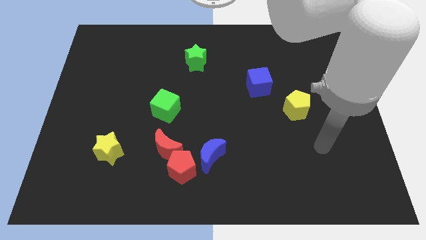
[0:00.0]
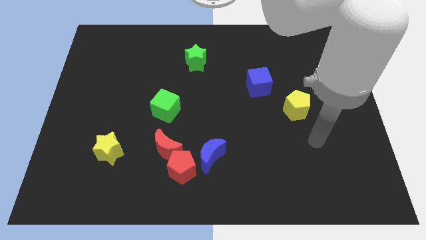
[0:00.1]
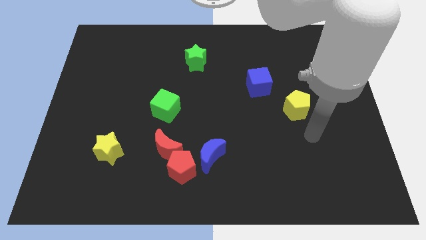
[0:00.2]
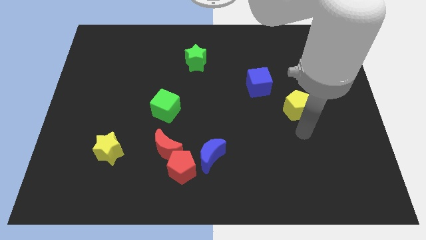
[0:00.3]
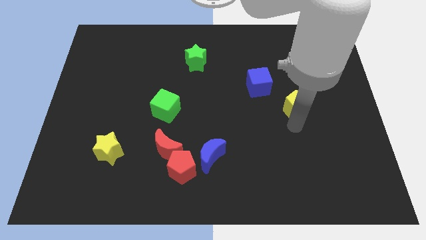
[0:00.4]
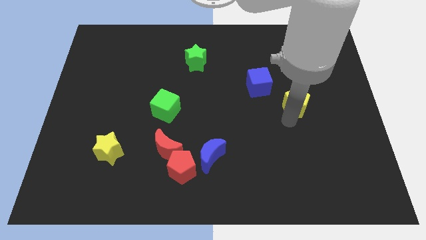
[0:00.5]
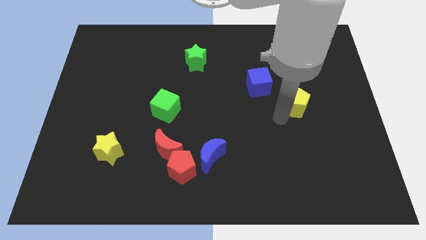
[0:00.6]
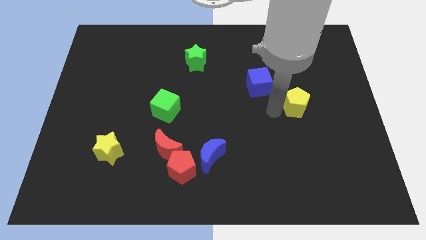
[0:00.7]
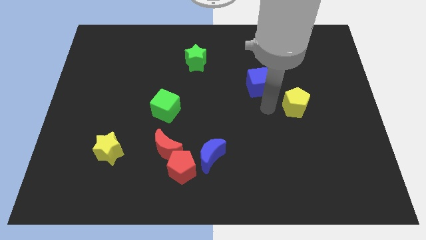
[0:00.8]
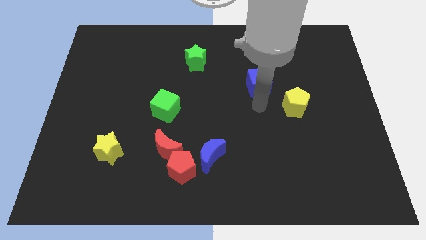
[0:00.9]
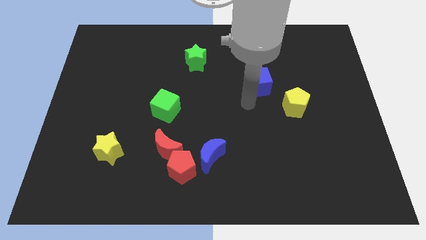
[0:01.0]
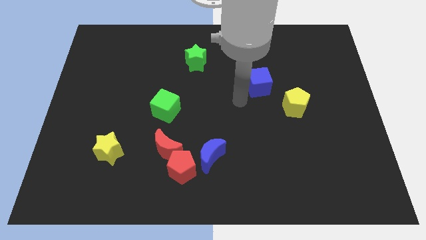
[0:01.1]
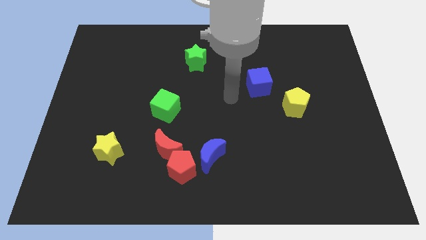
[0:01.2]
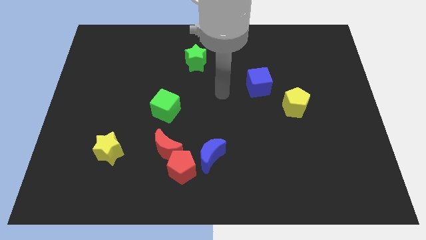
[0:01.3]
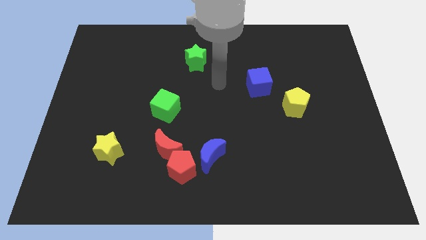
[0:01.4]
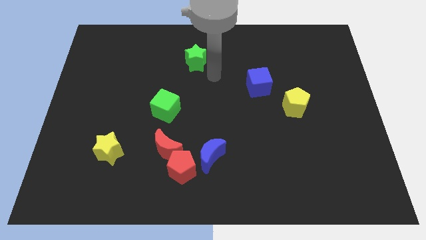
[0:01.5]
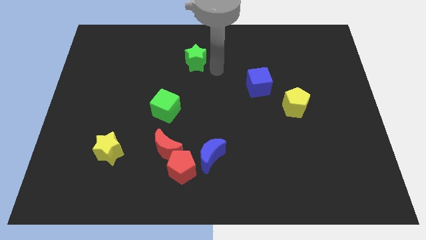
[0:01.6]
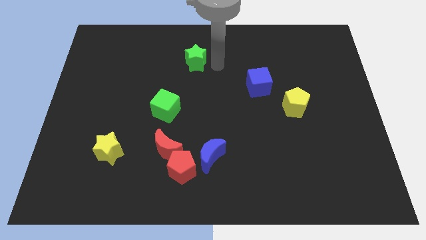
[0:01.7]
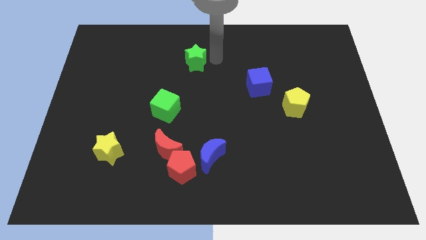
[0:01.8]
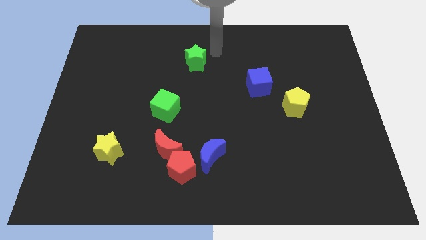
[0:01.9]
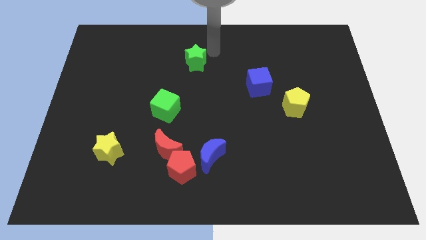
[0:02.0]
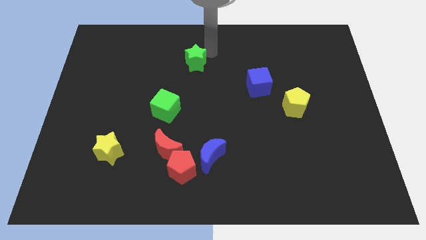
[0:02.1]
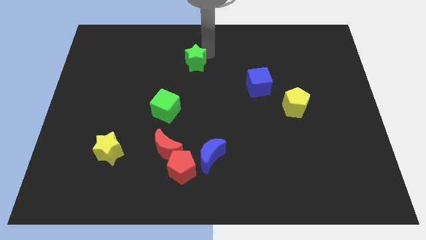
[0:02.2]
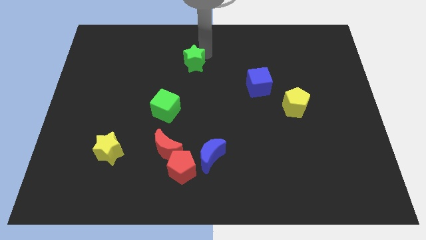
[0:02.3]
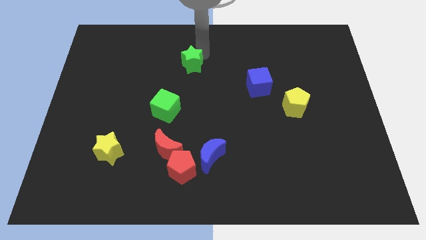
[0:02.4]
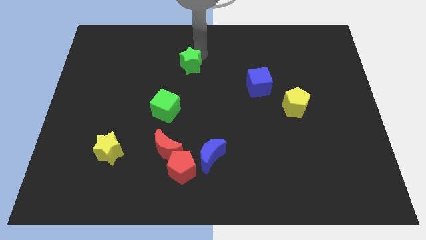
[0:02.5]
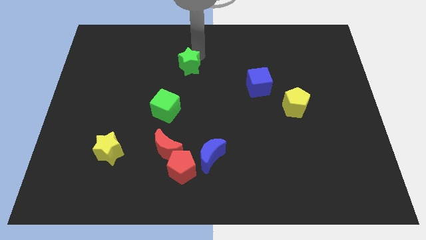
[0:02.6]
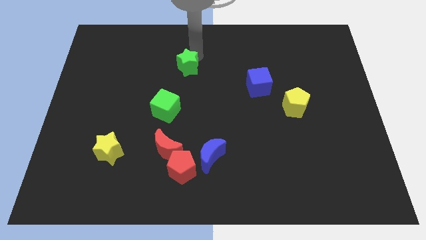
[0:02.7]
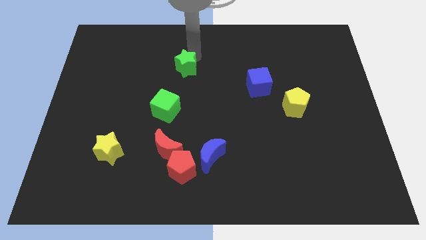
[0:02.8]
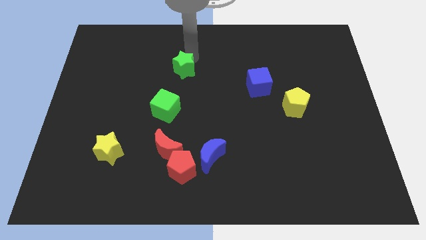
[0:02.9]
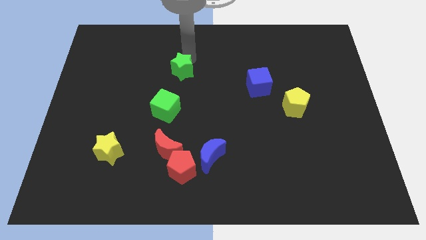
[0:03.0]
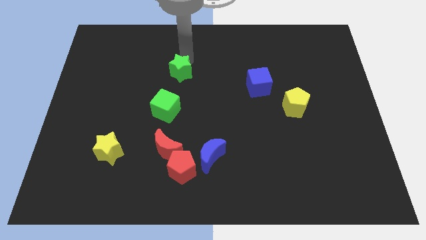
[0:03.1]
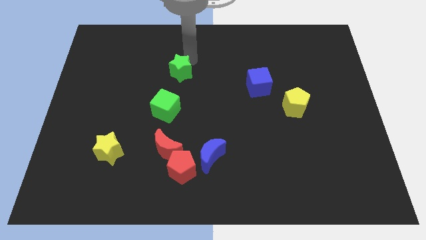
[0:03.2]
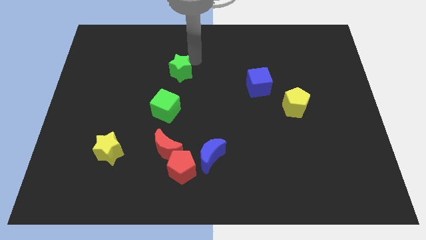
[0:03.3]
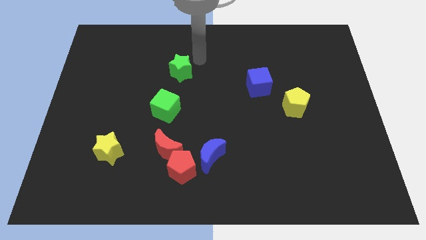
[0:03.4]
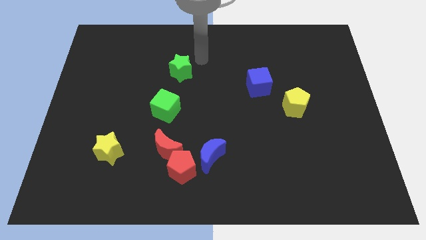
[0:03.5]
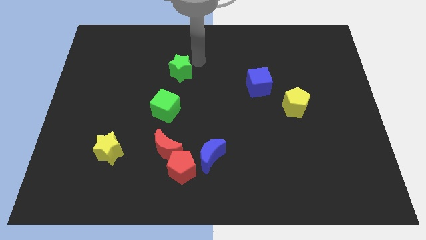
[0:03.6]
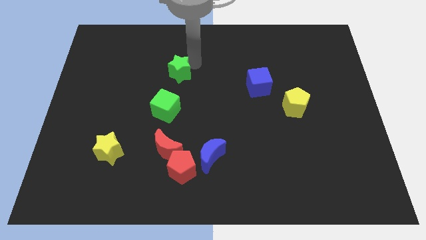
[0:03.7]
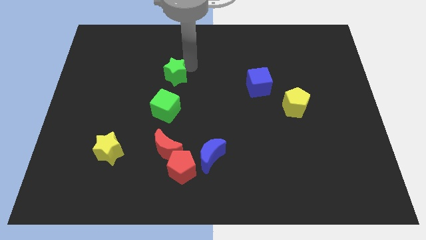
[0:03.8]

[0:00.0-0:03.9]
move the green star diagonally down and to the left slightly

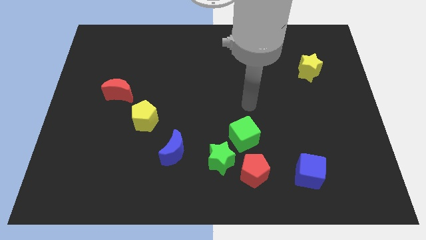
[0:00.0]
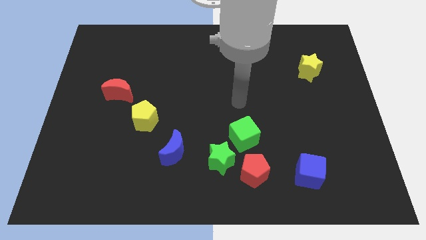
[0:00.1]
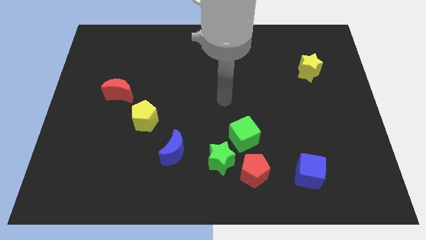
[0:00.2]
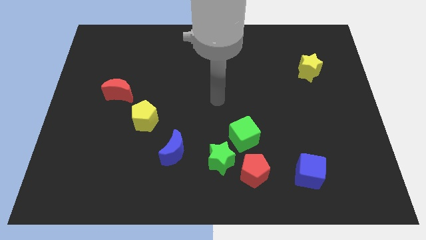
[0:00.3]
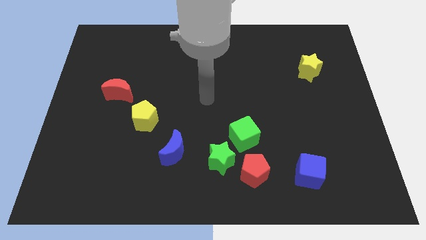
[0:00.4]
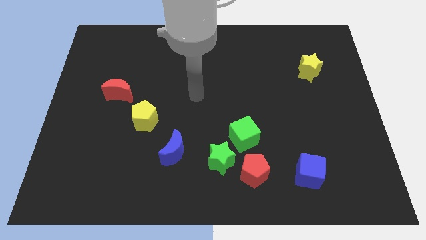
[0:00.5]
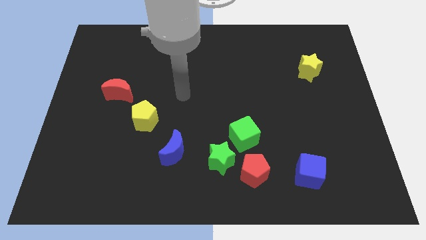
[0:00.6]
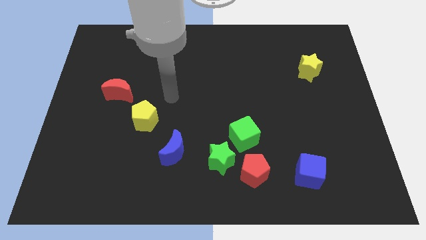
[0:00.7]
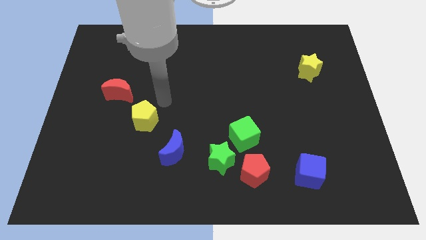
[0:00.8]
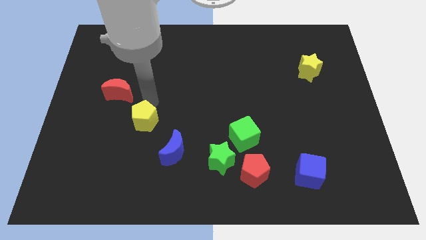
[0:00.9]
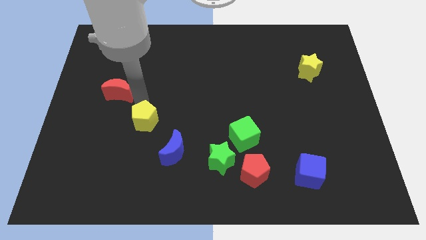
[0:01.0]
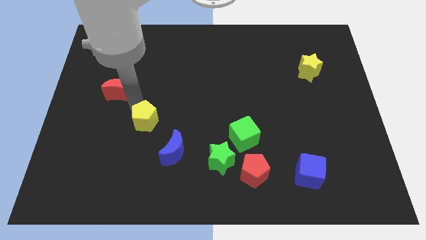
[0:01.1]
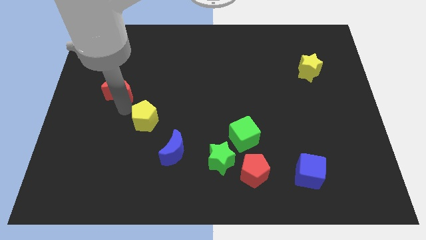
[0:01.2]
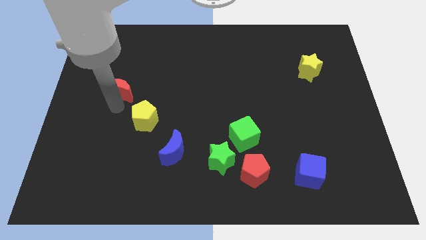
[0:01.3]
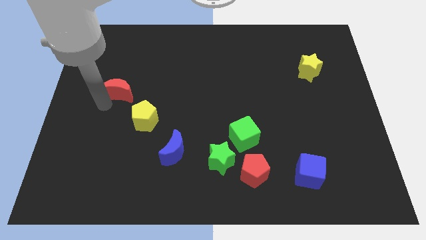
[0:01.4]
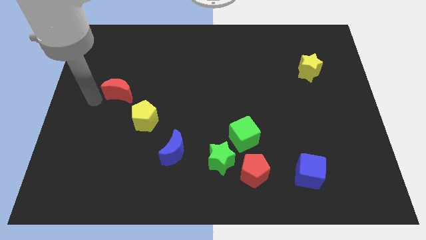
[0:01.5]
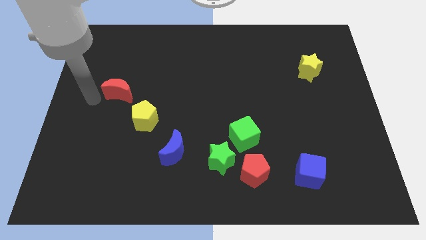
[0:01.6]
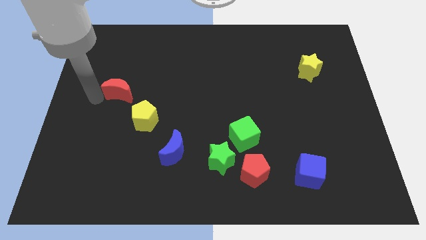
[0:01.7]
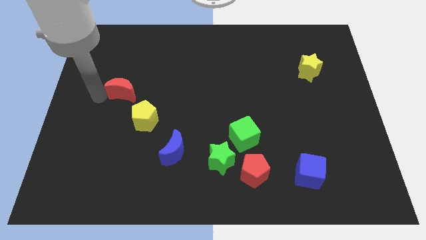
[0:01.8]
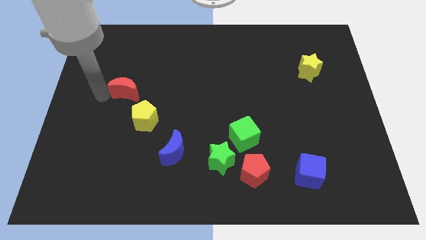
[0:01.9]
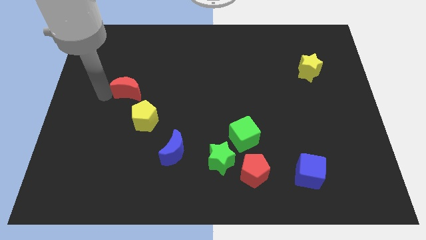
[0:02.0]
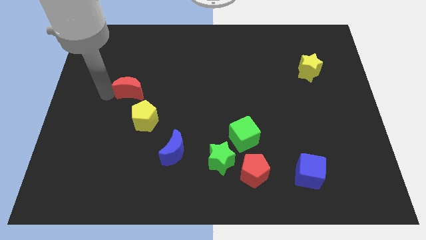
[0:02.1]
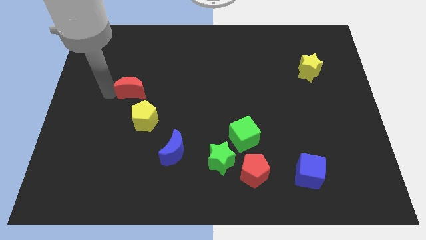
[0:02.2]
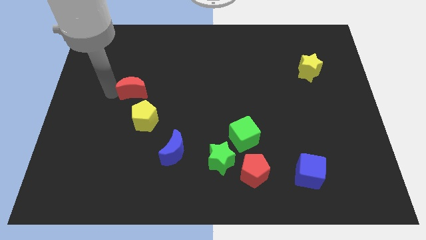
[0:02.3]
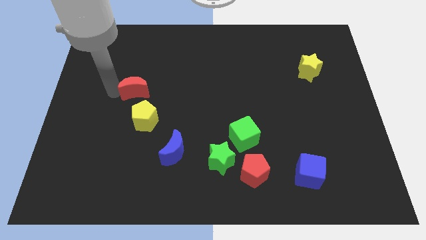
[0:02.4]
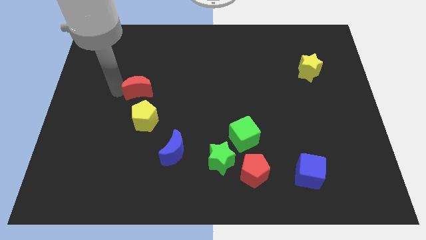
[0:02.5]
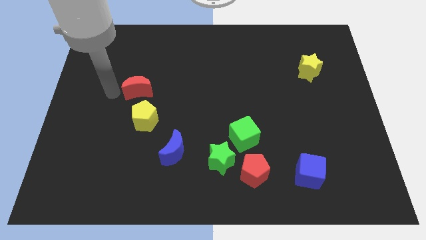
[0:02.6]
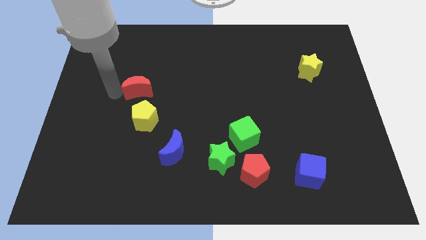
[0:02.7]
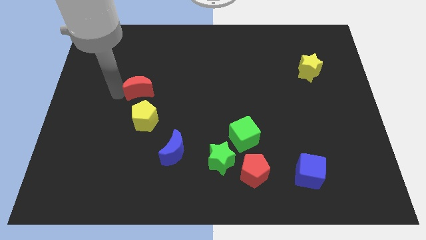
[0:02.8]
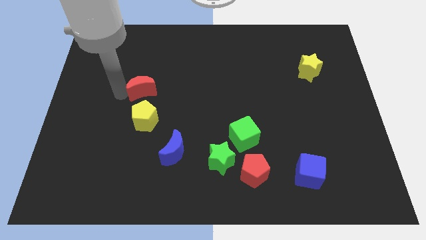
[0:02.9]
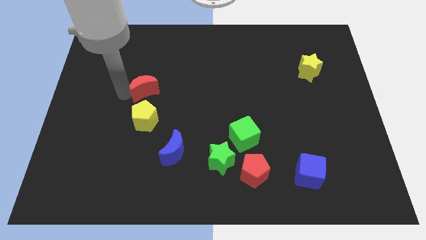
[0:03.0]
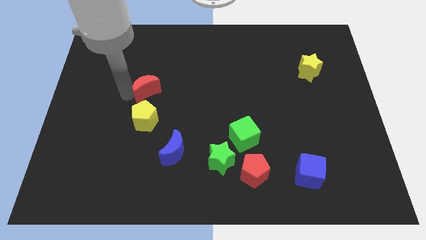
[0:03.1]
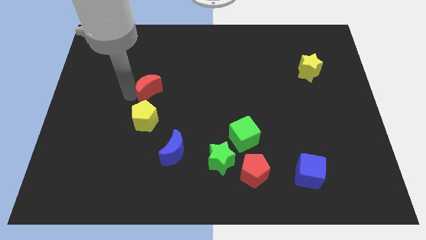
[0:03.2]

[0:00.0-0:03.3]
slide the red moon to the right a little bit

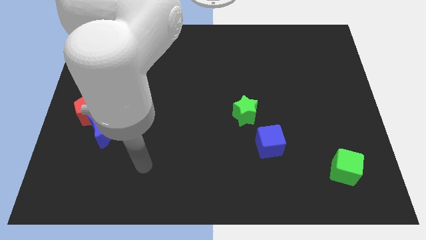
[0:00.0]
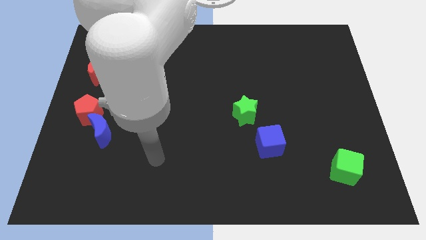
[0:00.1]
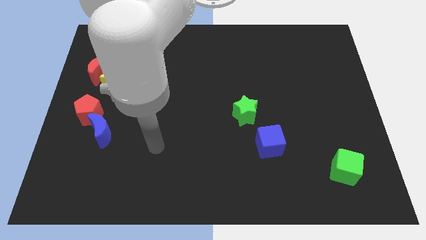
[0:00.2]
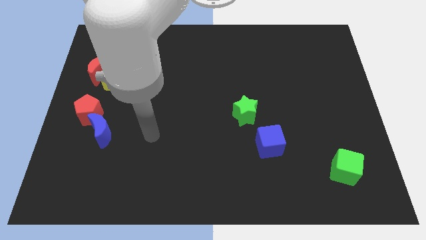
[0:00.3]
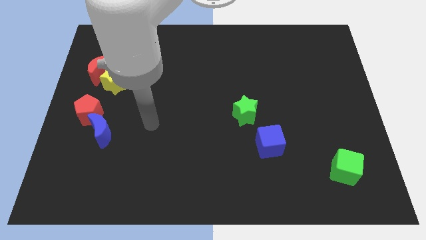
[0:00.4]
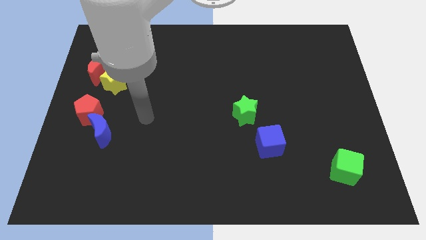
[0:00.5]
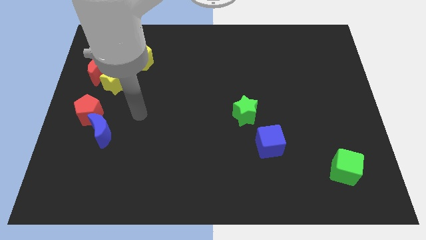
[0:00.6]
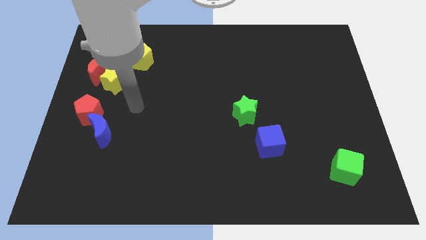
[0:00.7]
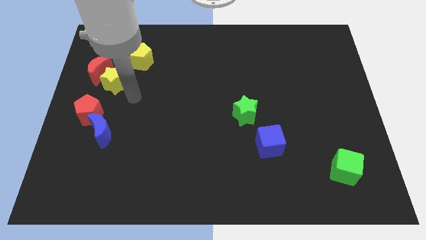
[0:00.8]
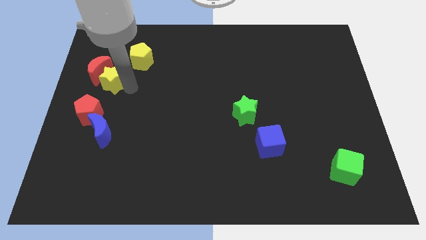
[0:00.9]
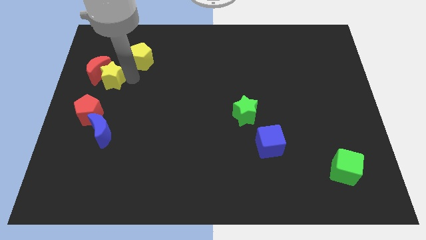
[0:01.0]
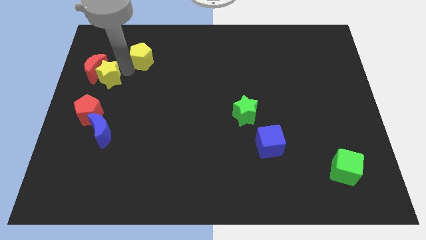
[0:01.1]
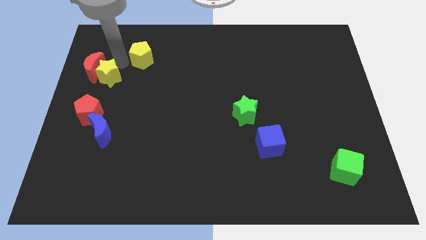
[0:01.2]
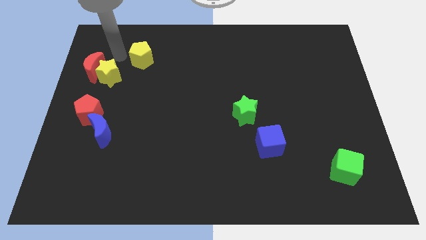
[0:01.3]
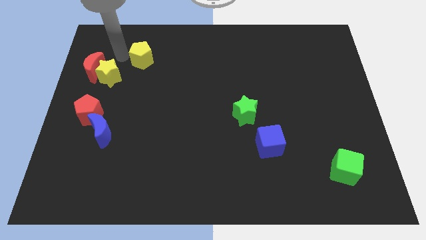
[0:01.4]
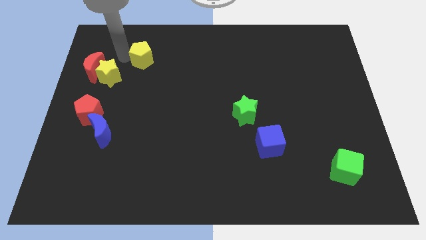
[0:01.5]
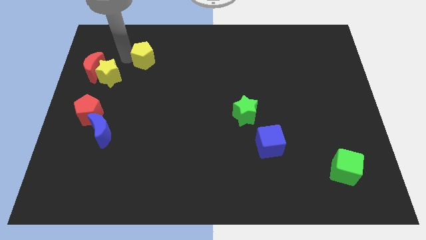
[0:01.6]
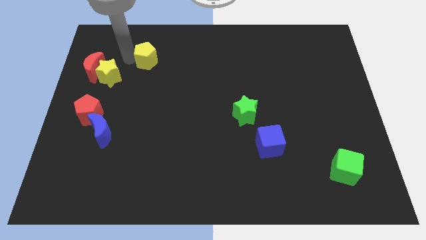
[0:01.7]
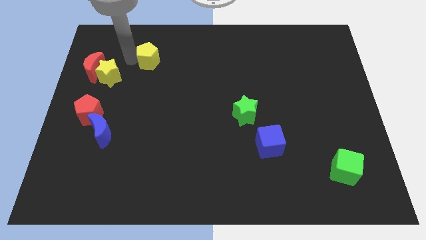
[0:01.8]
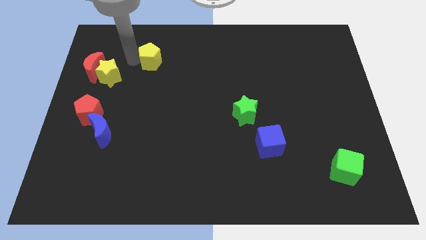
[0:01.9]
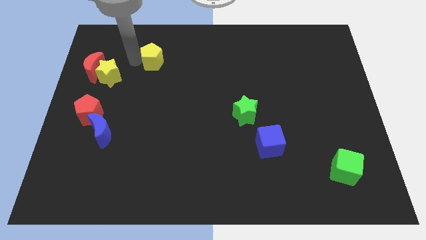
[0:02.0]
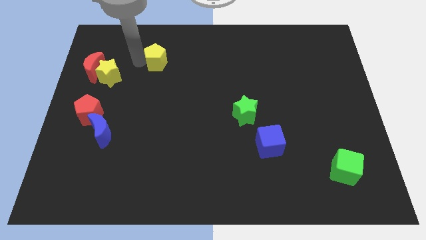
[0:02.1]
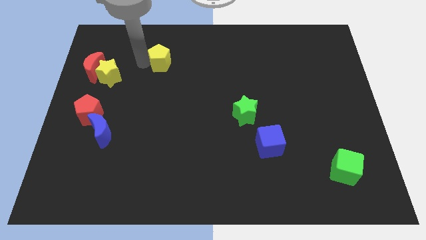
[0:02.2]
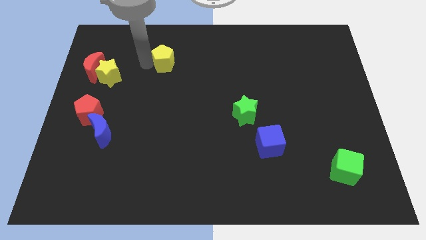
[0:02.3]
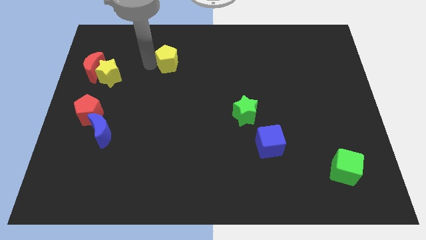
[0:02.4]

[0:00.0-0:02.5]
slide the yellow pentagon somewhat to the right
